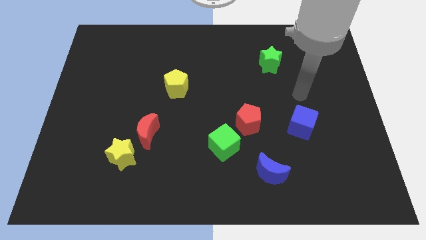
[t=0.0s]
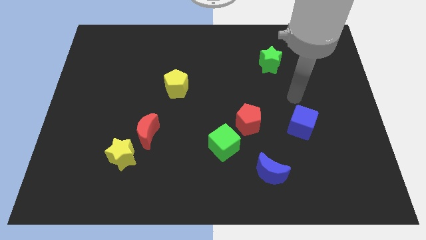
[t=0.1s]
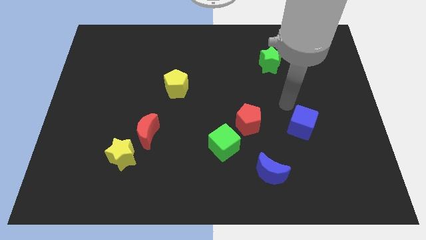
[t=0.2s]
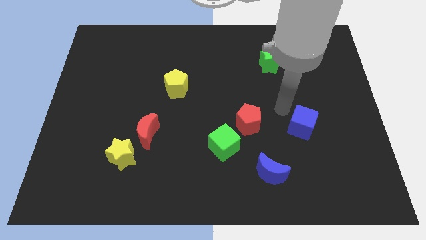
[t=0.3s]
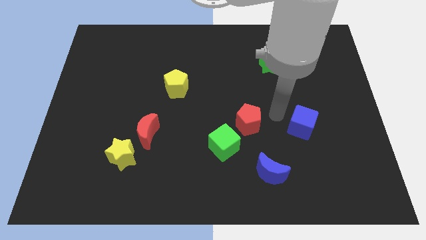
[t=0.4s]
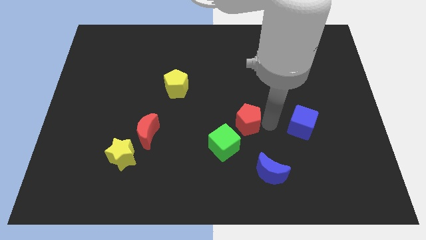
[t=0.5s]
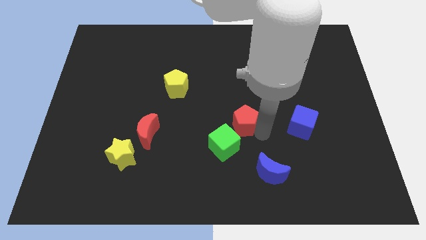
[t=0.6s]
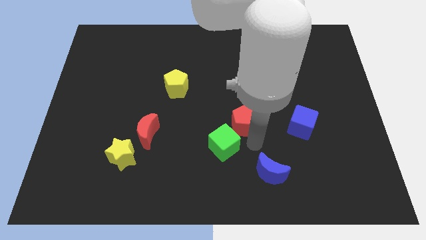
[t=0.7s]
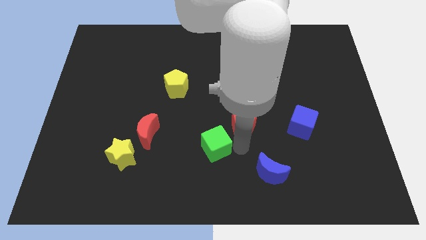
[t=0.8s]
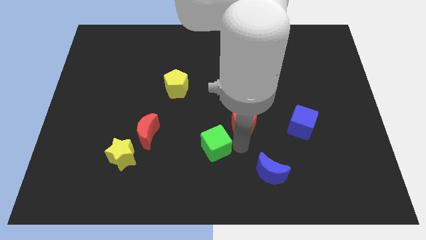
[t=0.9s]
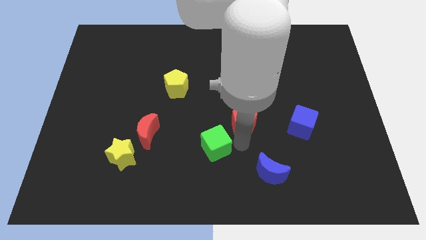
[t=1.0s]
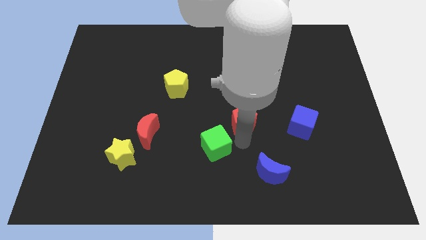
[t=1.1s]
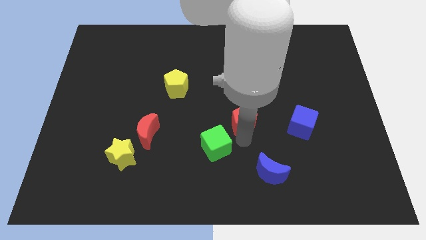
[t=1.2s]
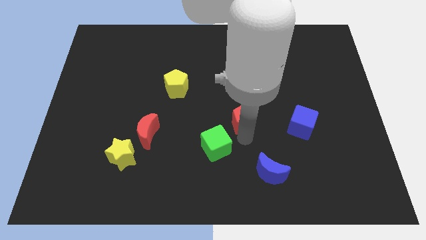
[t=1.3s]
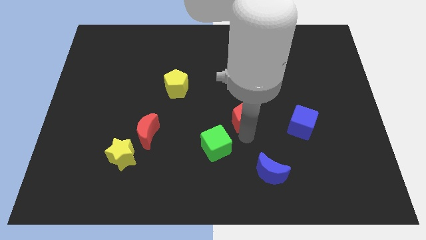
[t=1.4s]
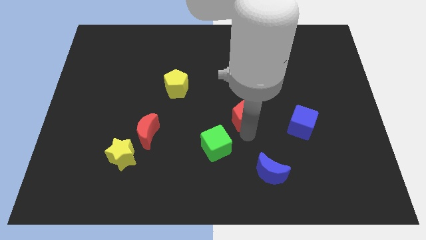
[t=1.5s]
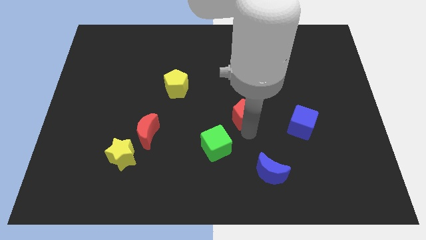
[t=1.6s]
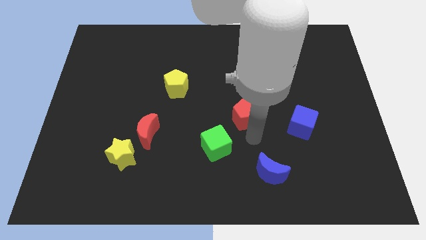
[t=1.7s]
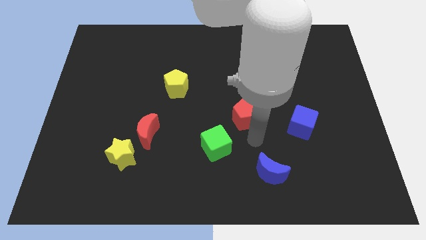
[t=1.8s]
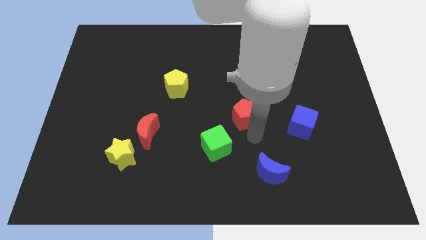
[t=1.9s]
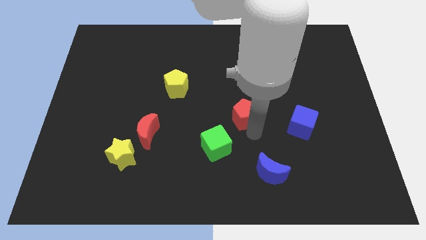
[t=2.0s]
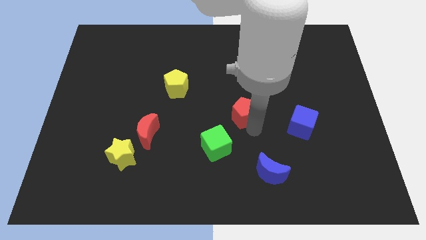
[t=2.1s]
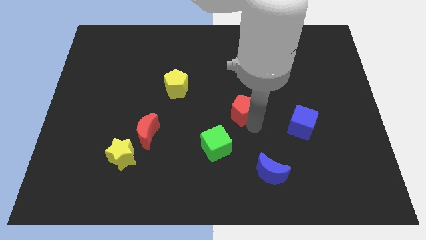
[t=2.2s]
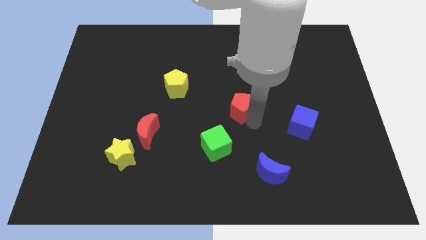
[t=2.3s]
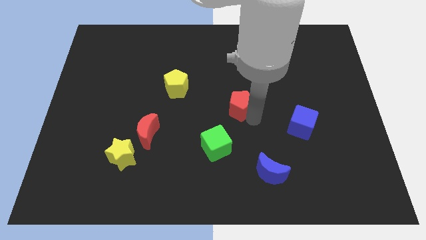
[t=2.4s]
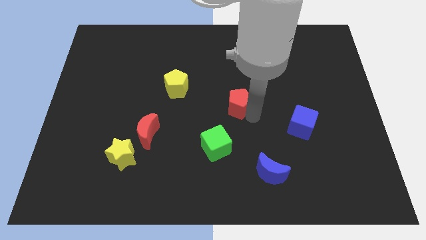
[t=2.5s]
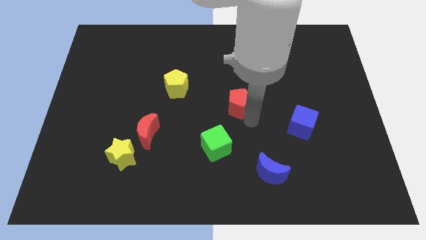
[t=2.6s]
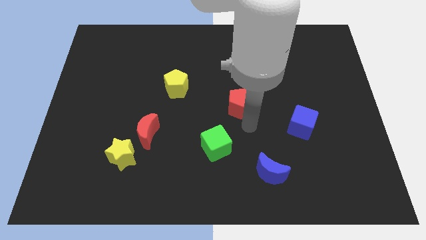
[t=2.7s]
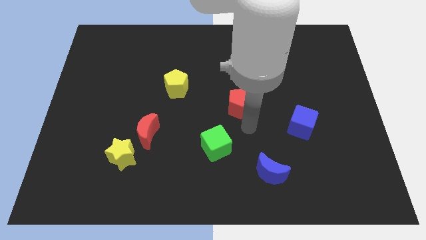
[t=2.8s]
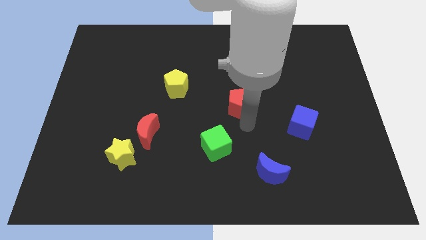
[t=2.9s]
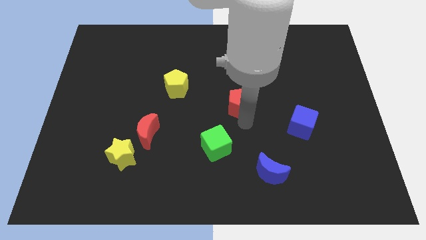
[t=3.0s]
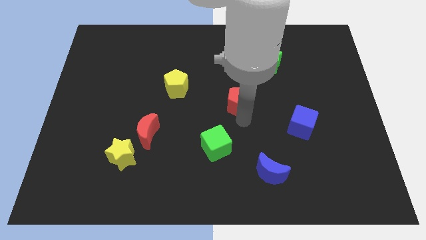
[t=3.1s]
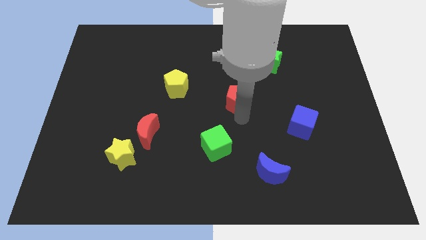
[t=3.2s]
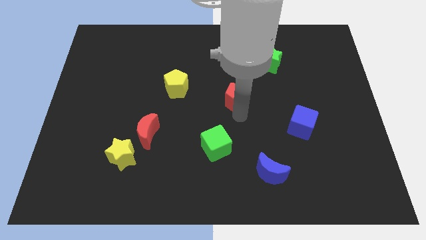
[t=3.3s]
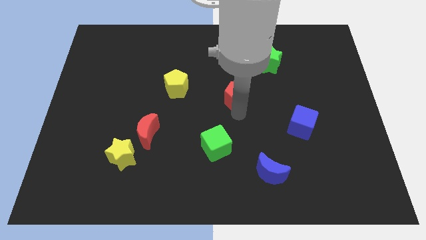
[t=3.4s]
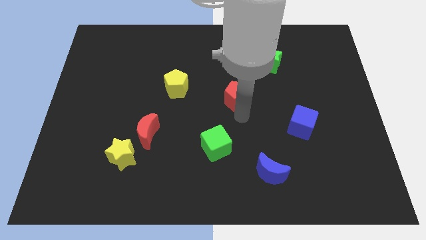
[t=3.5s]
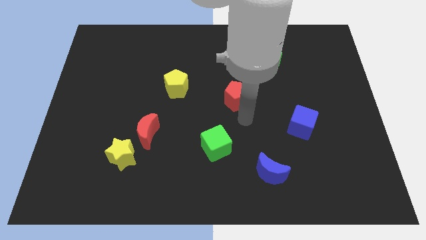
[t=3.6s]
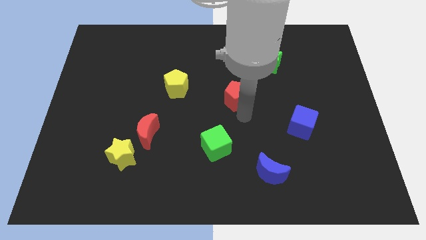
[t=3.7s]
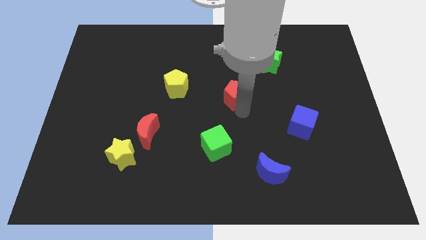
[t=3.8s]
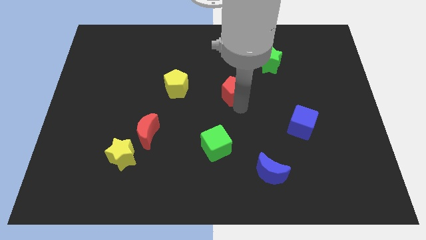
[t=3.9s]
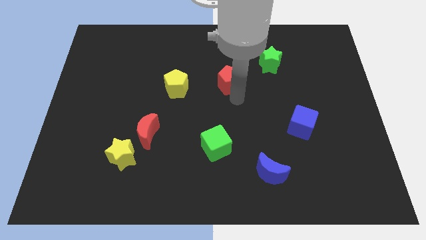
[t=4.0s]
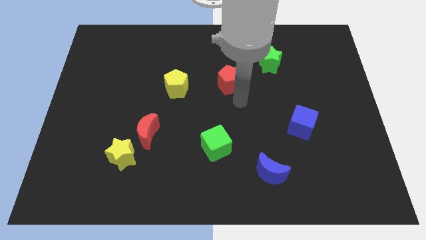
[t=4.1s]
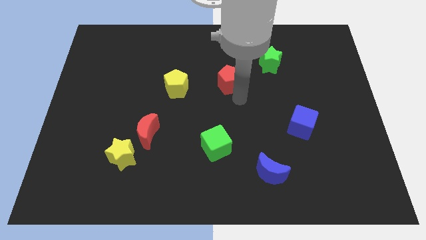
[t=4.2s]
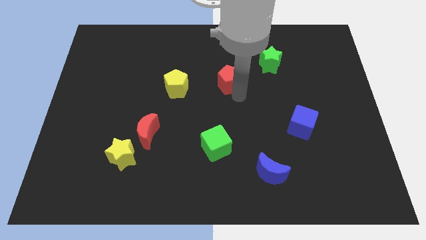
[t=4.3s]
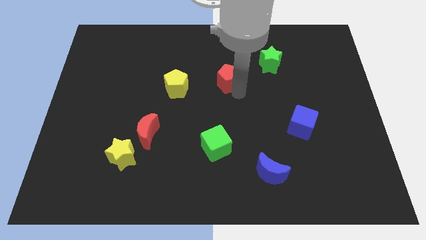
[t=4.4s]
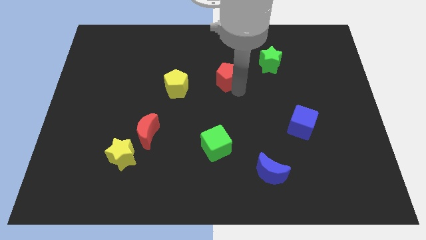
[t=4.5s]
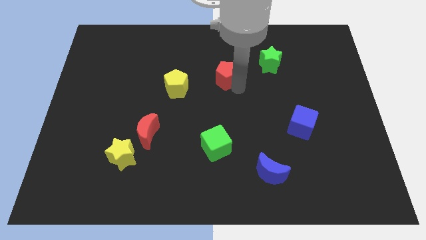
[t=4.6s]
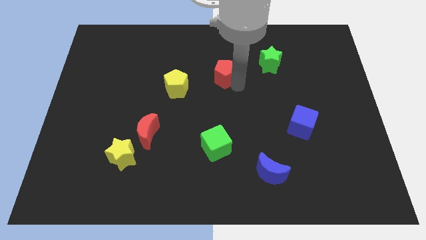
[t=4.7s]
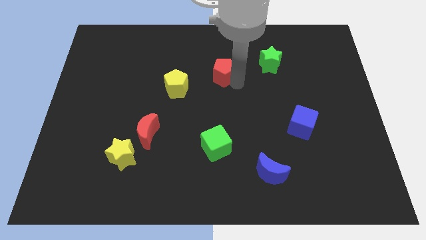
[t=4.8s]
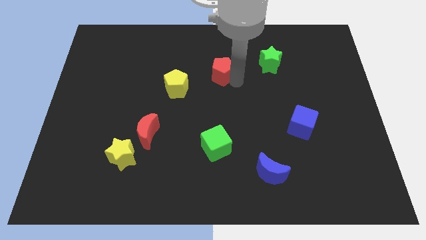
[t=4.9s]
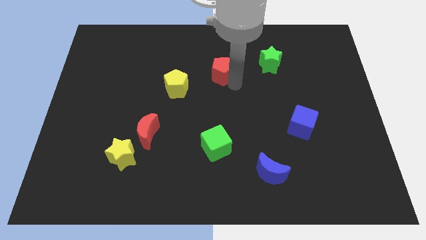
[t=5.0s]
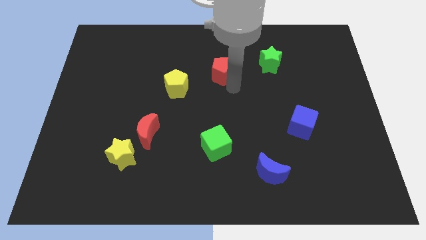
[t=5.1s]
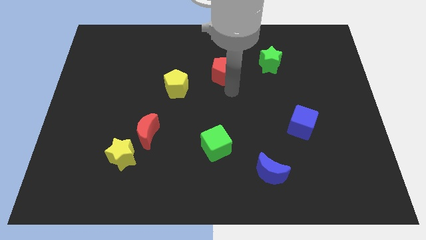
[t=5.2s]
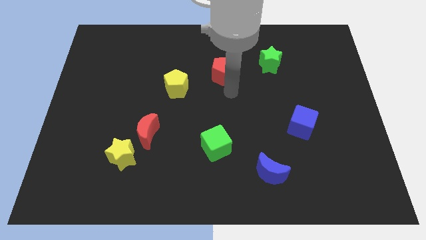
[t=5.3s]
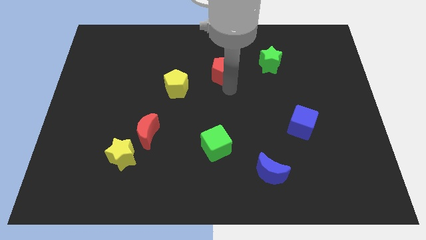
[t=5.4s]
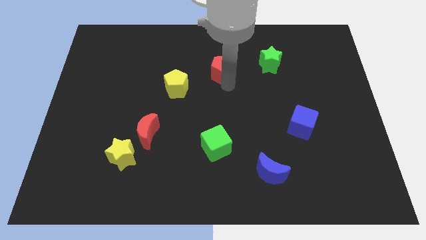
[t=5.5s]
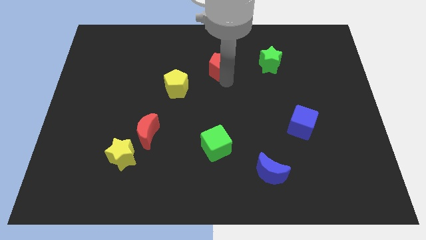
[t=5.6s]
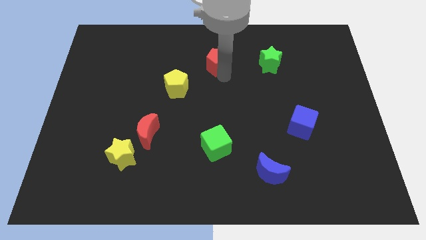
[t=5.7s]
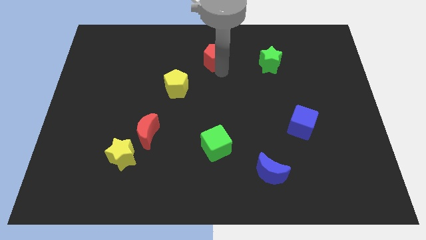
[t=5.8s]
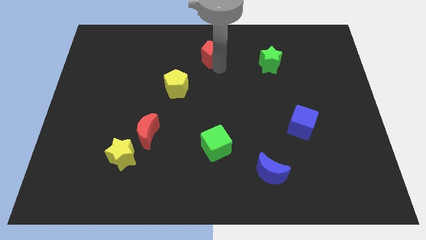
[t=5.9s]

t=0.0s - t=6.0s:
move the red pentagon to the top
